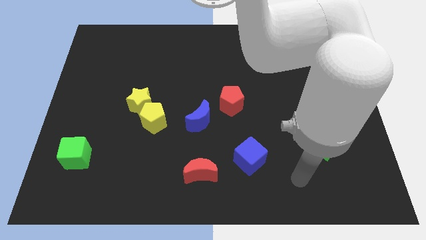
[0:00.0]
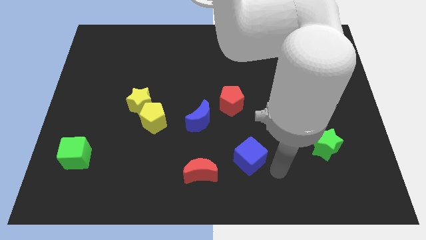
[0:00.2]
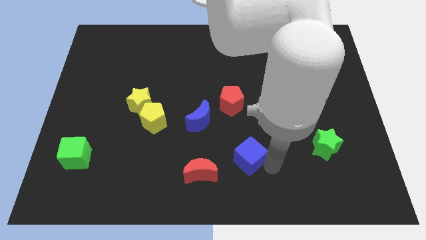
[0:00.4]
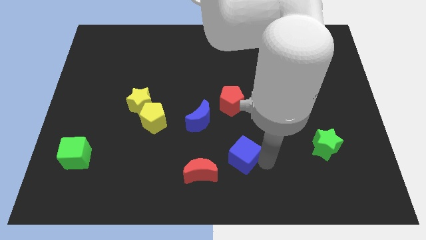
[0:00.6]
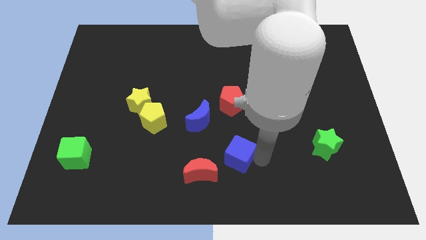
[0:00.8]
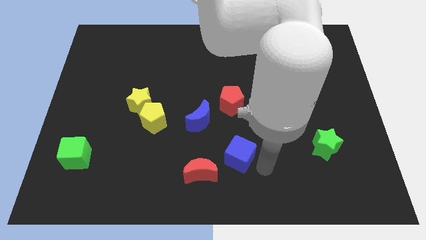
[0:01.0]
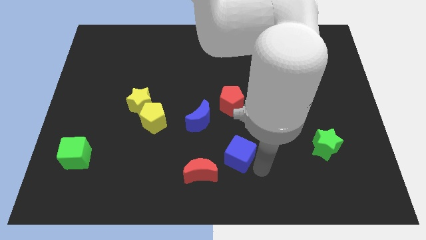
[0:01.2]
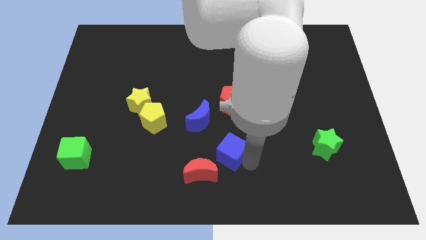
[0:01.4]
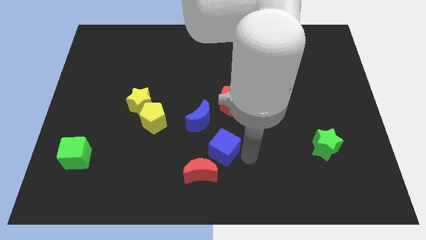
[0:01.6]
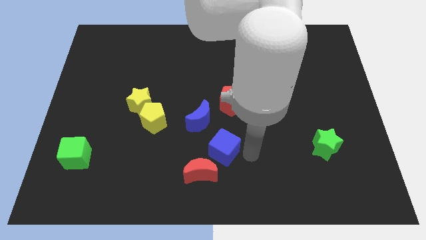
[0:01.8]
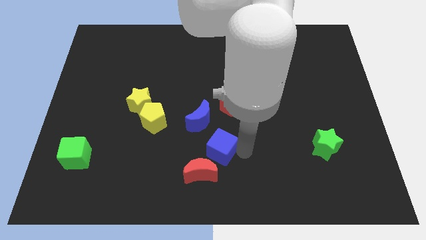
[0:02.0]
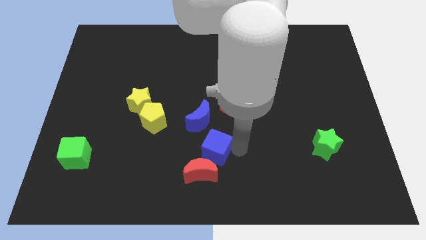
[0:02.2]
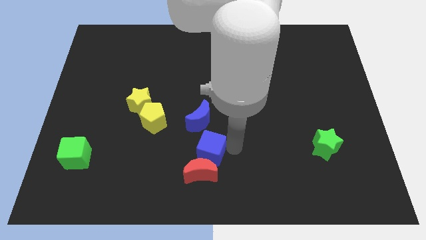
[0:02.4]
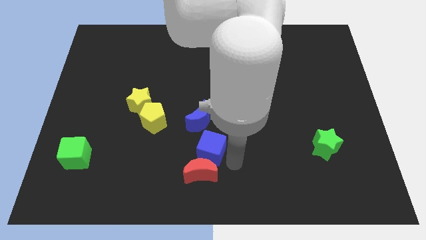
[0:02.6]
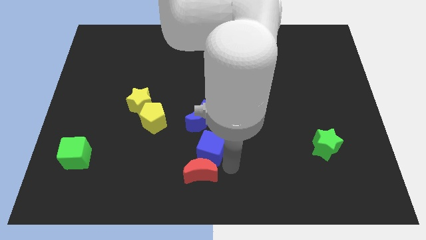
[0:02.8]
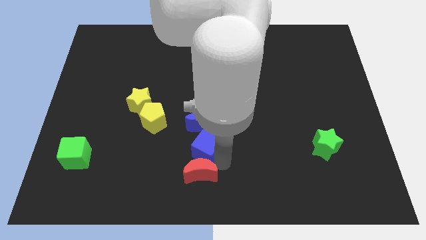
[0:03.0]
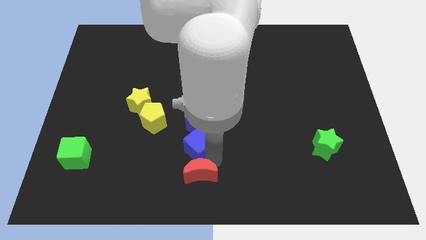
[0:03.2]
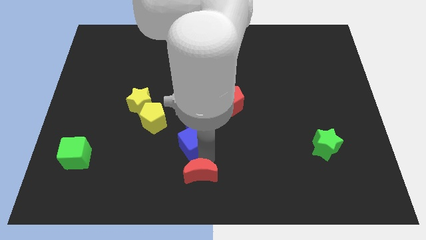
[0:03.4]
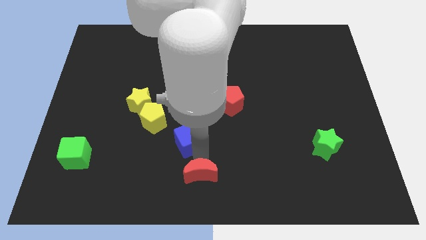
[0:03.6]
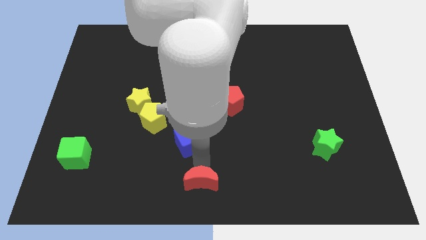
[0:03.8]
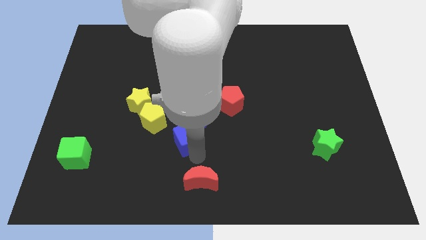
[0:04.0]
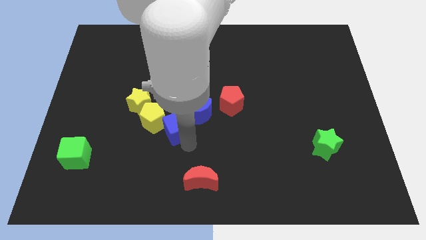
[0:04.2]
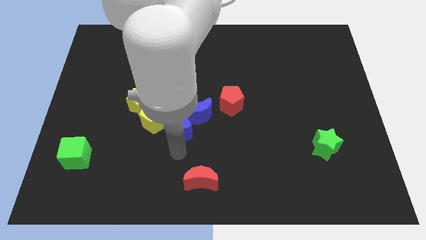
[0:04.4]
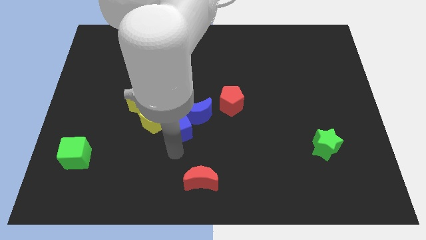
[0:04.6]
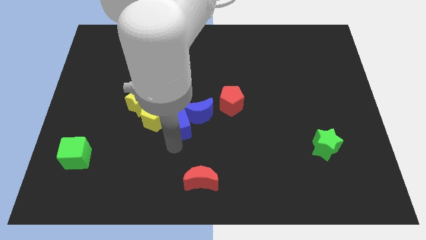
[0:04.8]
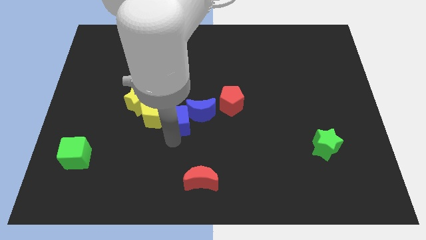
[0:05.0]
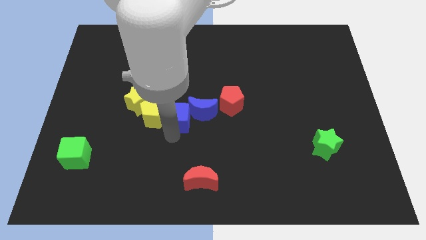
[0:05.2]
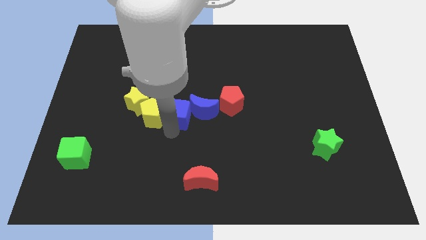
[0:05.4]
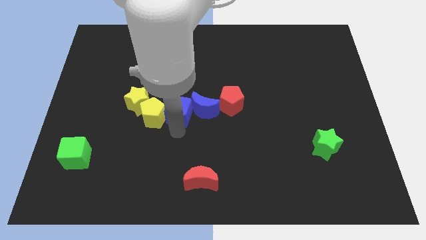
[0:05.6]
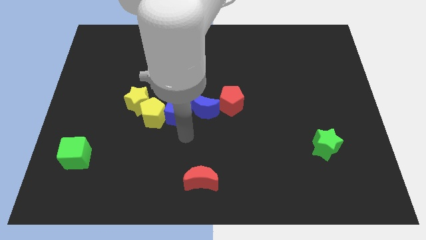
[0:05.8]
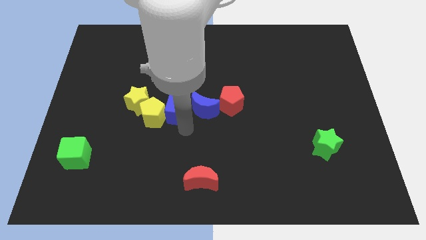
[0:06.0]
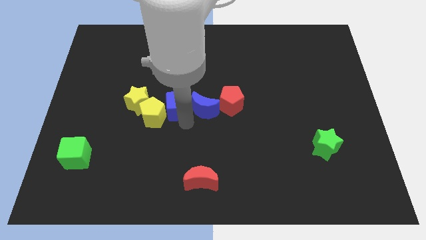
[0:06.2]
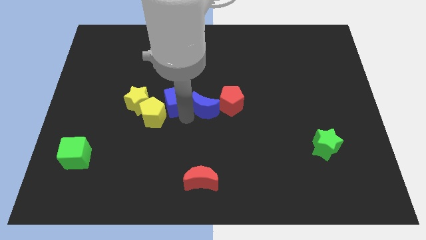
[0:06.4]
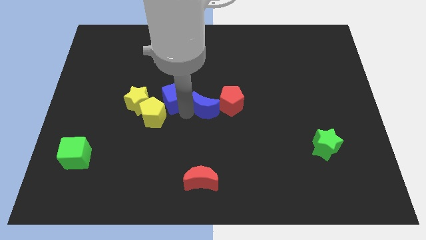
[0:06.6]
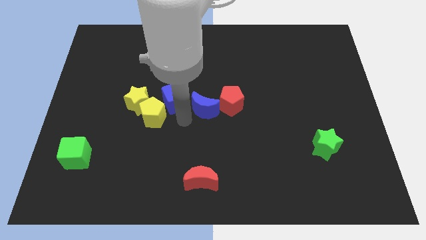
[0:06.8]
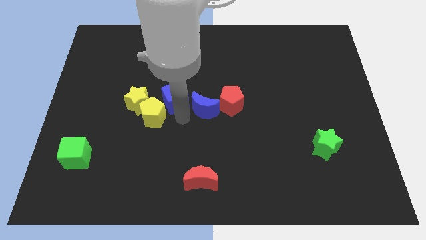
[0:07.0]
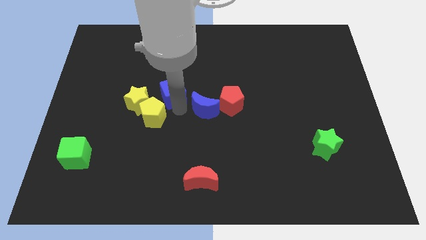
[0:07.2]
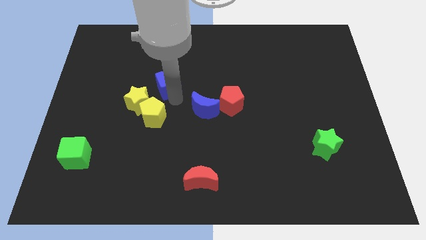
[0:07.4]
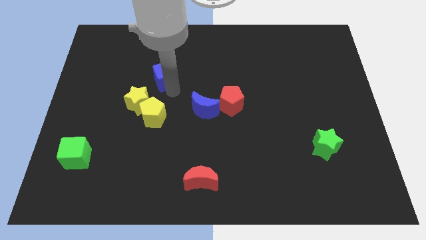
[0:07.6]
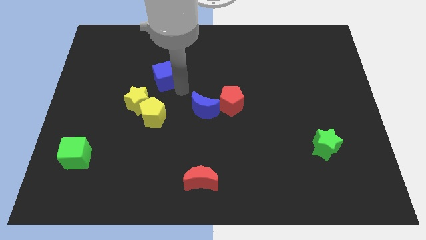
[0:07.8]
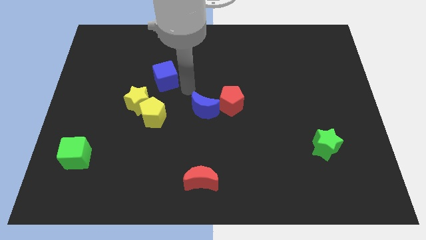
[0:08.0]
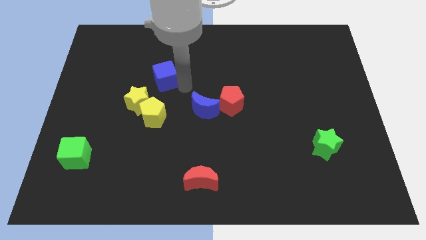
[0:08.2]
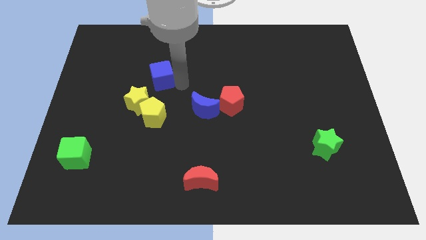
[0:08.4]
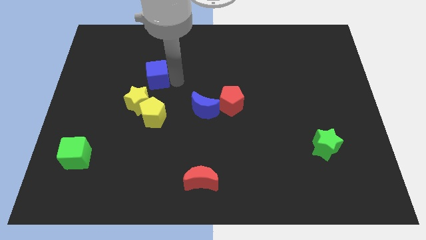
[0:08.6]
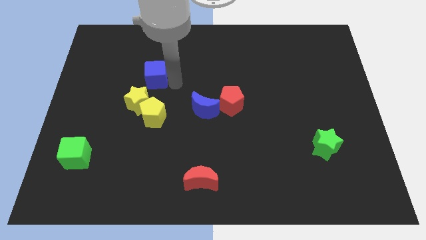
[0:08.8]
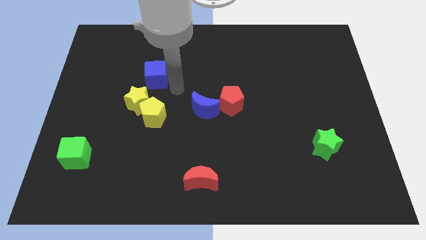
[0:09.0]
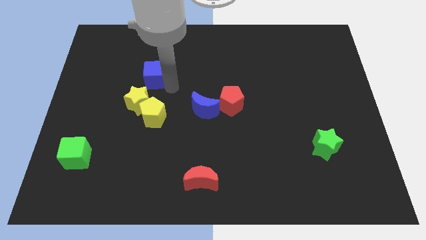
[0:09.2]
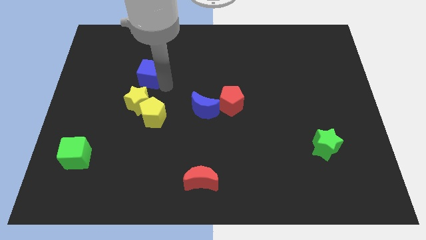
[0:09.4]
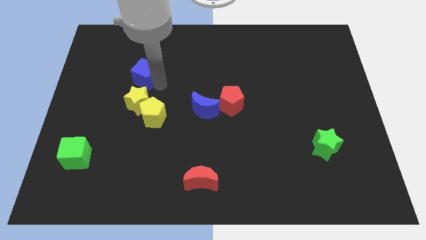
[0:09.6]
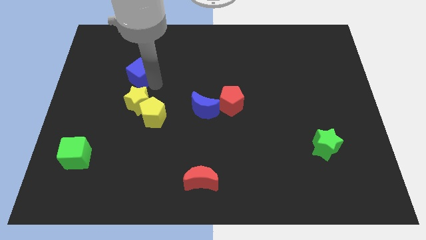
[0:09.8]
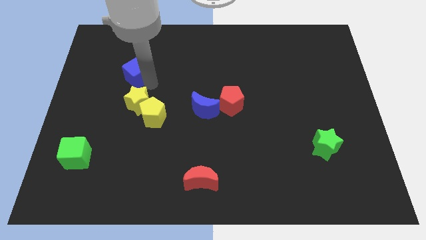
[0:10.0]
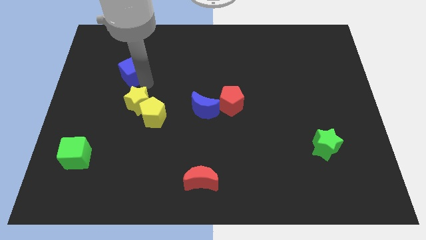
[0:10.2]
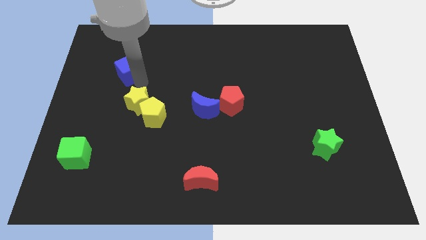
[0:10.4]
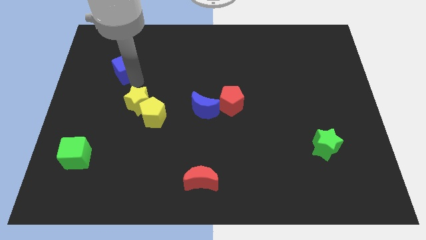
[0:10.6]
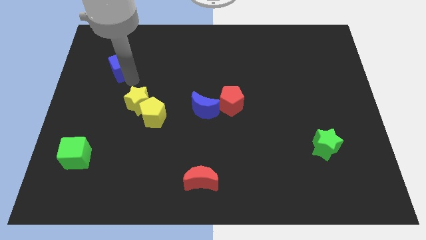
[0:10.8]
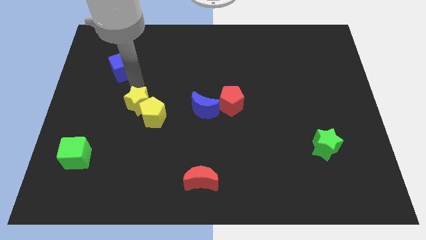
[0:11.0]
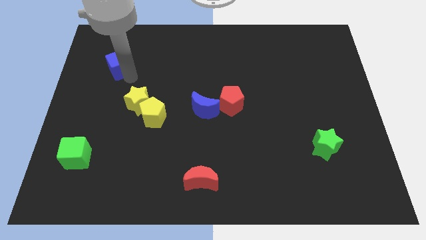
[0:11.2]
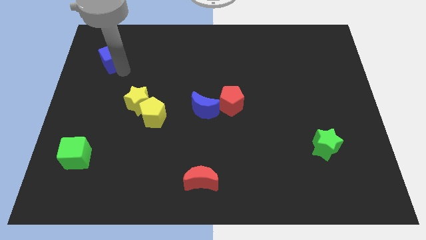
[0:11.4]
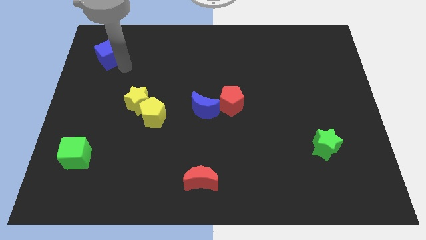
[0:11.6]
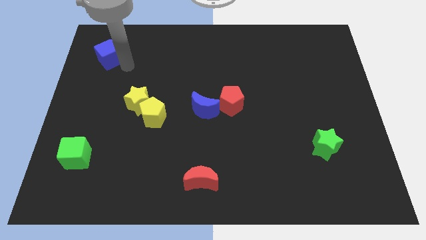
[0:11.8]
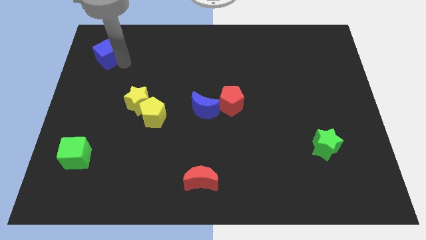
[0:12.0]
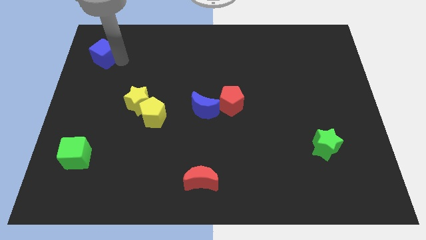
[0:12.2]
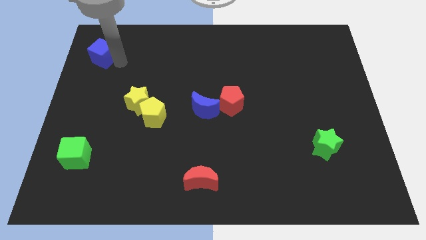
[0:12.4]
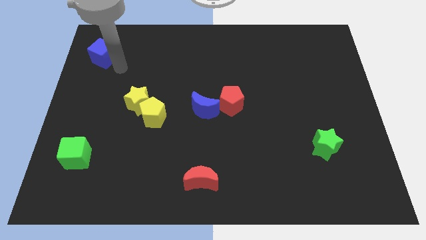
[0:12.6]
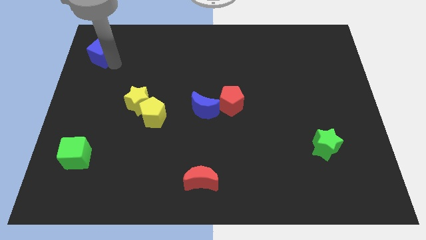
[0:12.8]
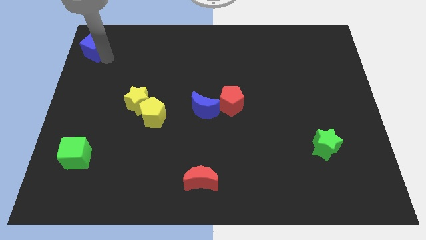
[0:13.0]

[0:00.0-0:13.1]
slide the blue cube to the top left of the board

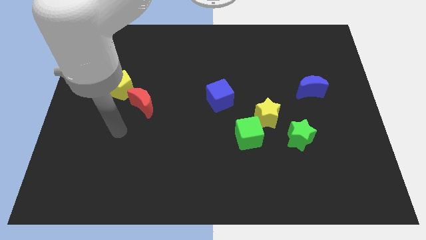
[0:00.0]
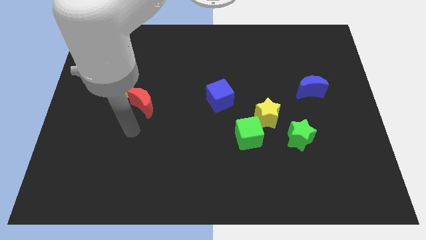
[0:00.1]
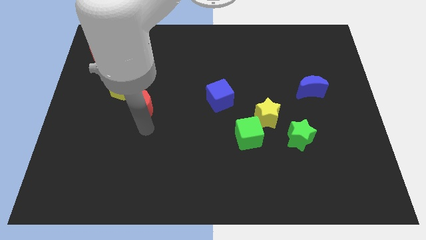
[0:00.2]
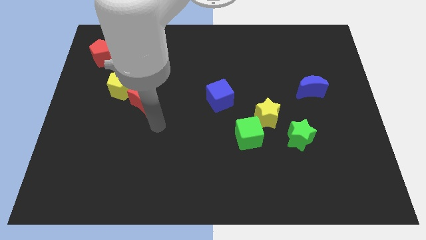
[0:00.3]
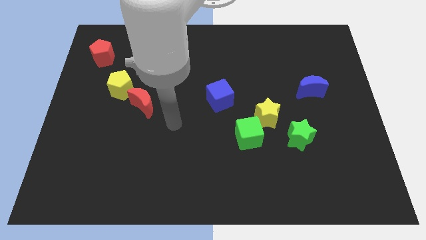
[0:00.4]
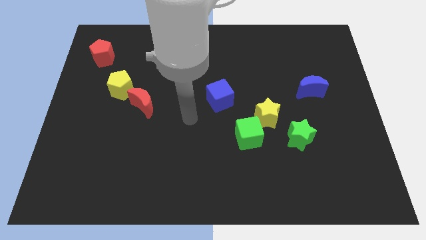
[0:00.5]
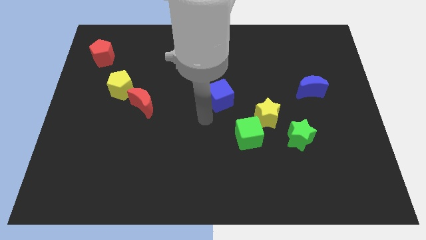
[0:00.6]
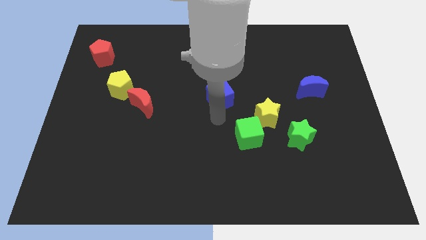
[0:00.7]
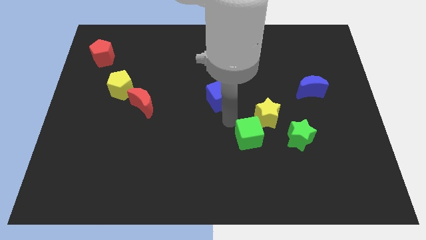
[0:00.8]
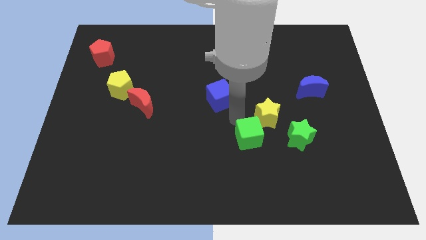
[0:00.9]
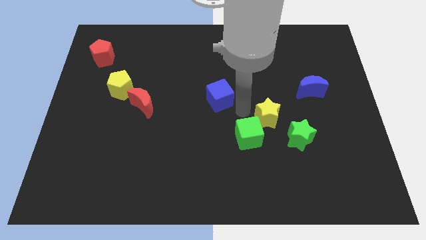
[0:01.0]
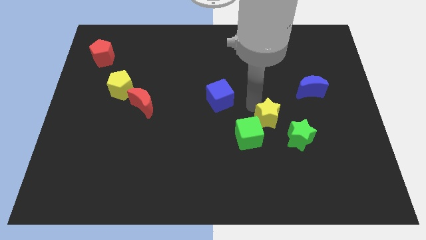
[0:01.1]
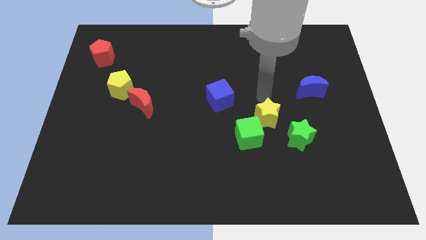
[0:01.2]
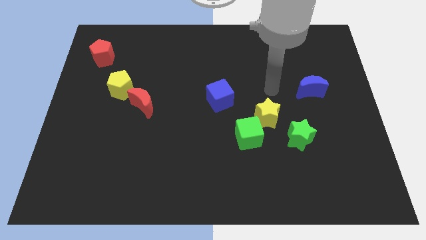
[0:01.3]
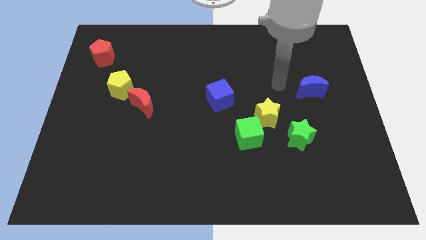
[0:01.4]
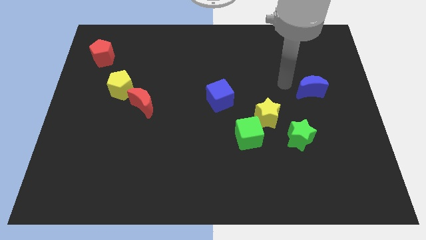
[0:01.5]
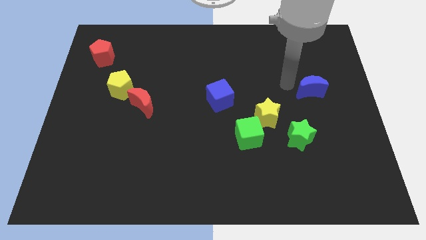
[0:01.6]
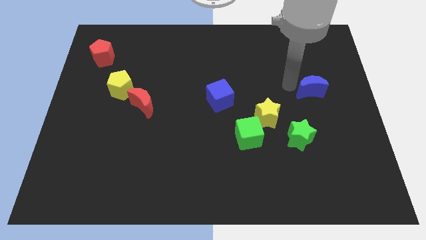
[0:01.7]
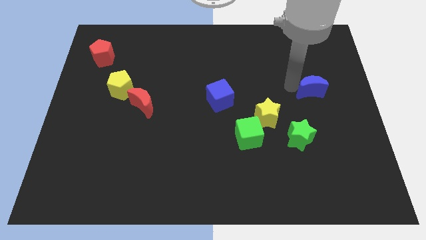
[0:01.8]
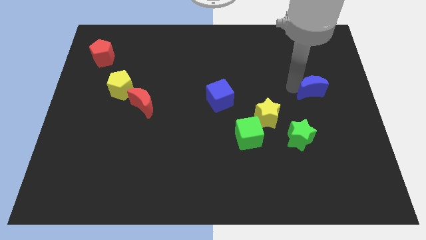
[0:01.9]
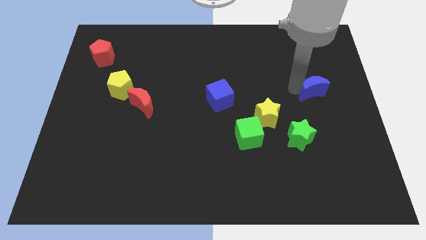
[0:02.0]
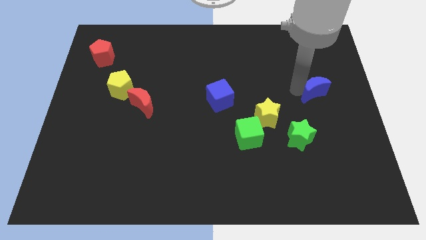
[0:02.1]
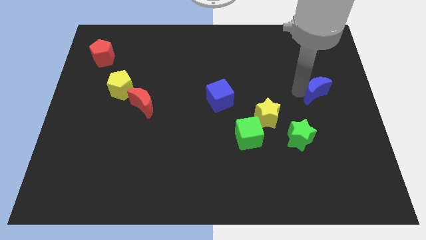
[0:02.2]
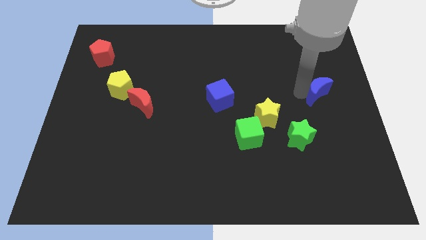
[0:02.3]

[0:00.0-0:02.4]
move the blue moon to the right side of the board
